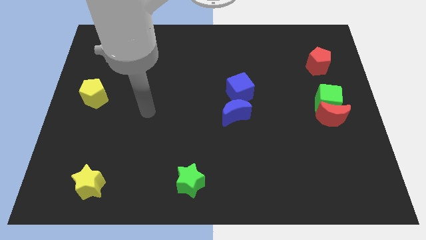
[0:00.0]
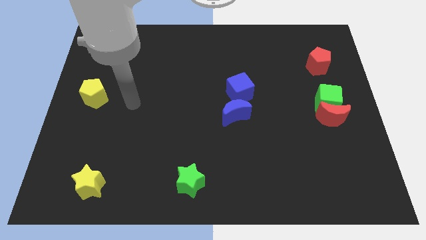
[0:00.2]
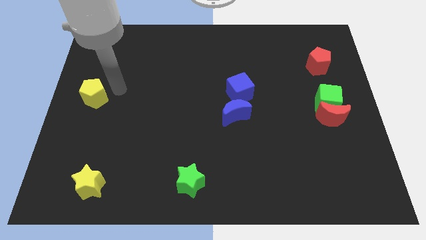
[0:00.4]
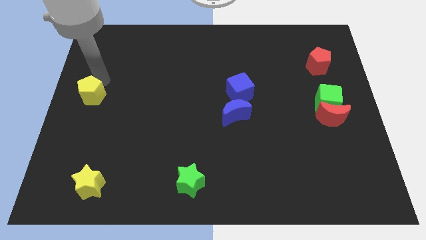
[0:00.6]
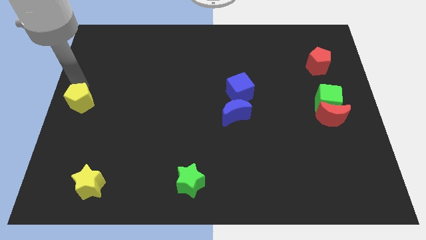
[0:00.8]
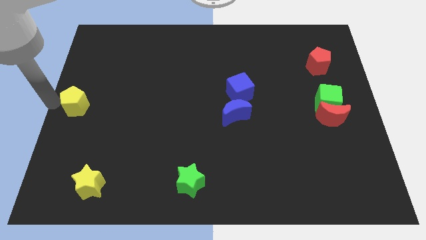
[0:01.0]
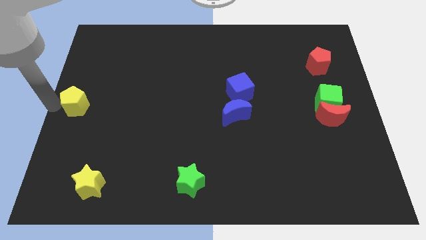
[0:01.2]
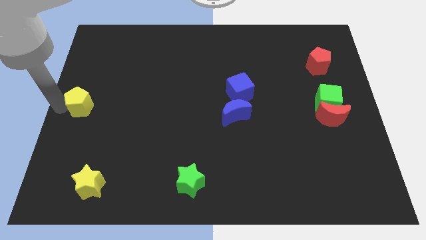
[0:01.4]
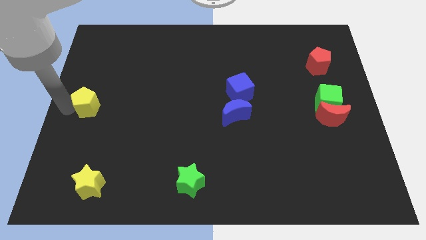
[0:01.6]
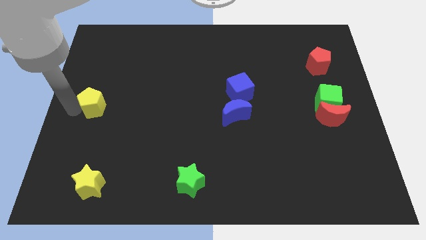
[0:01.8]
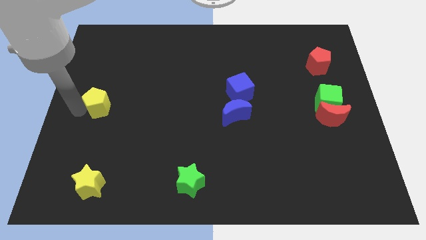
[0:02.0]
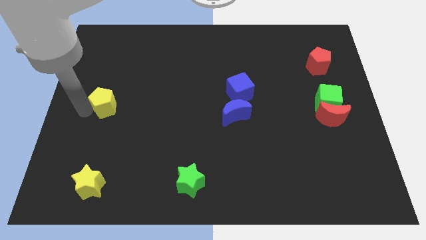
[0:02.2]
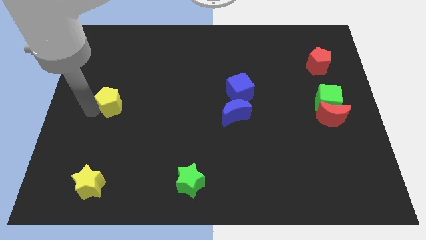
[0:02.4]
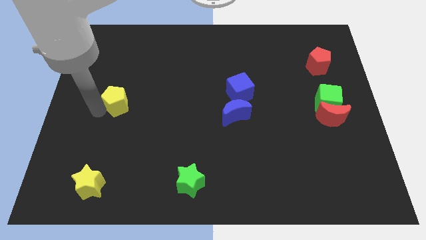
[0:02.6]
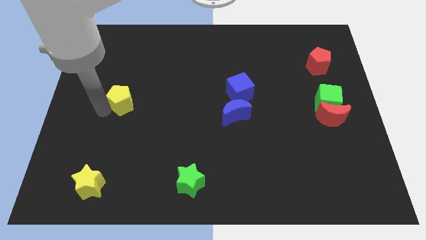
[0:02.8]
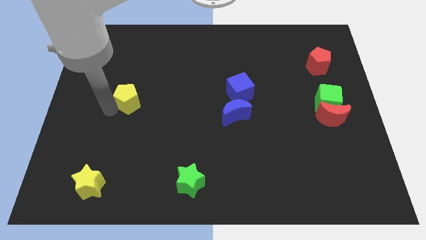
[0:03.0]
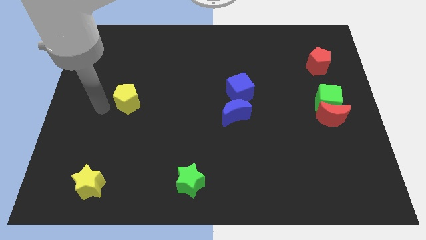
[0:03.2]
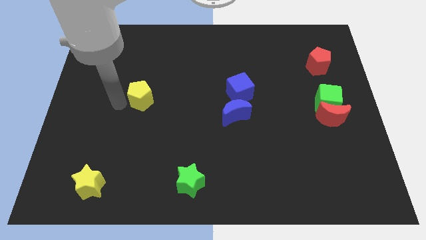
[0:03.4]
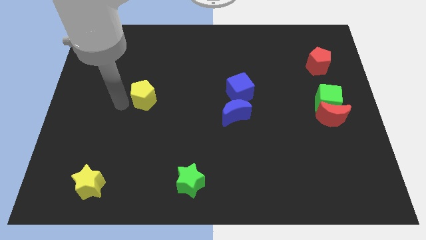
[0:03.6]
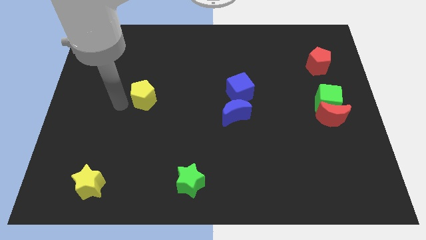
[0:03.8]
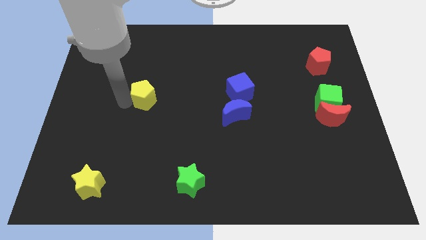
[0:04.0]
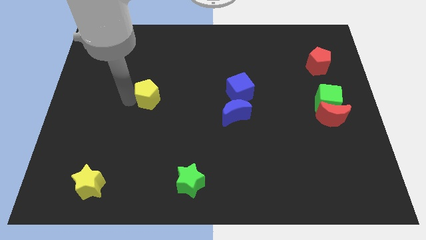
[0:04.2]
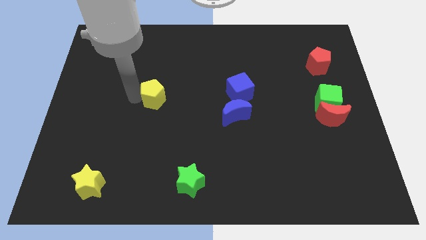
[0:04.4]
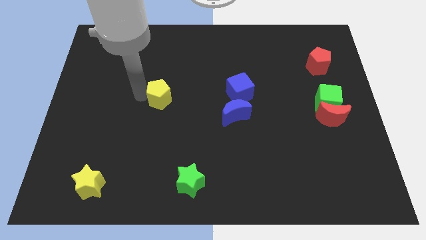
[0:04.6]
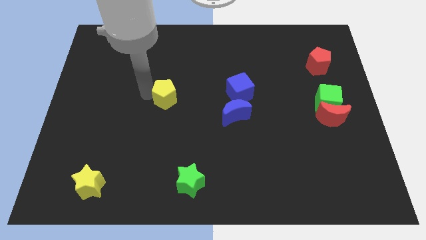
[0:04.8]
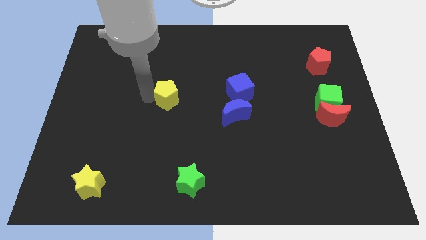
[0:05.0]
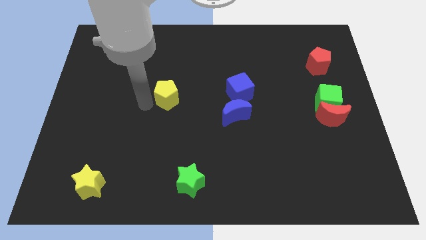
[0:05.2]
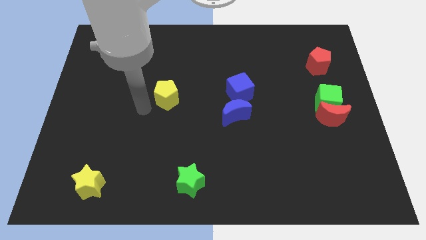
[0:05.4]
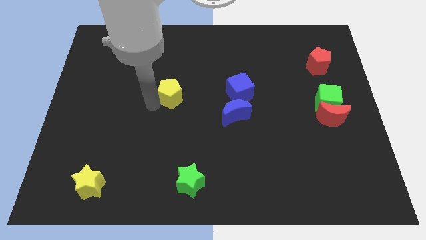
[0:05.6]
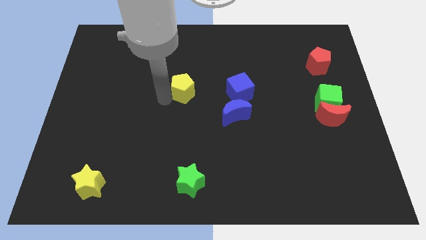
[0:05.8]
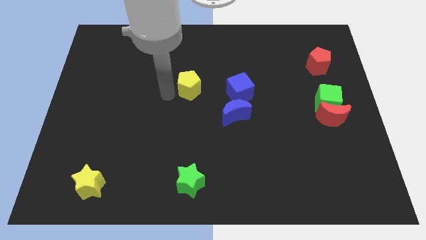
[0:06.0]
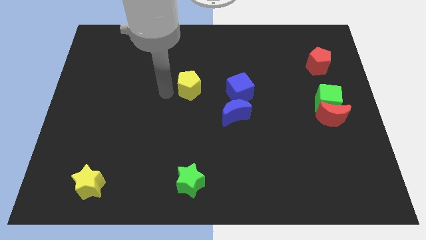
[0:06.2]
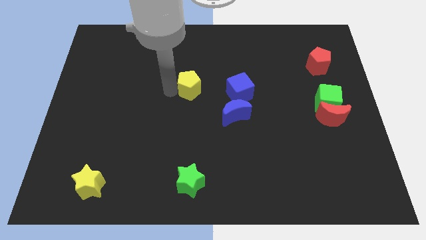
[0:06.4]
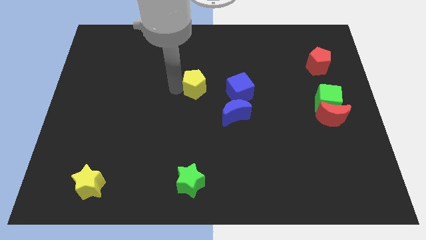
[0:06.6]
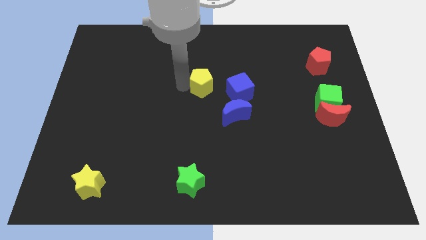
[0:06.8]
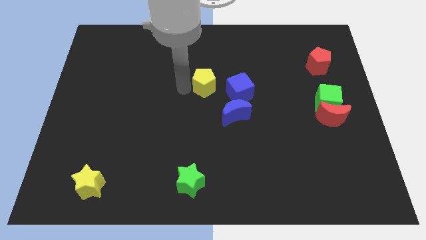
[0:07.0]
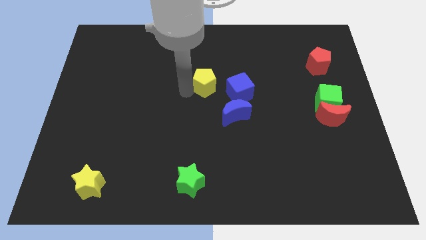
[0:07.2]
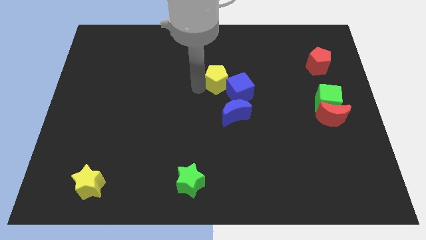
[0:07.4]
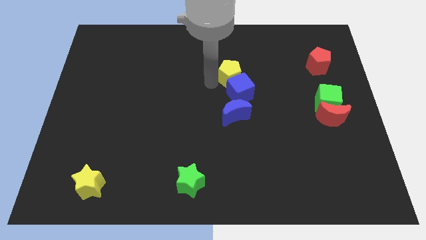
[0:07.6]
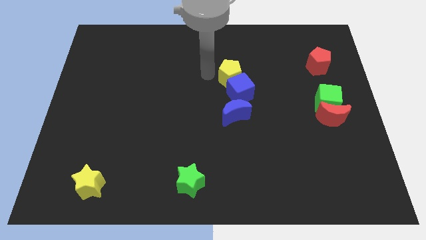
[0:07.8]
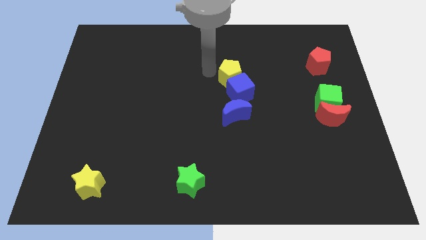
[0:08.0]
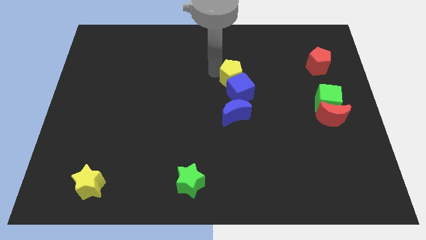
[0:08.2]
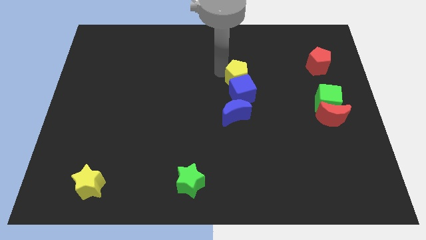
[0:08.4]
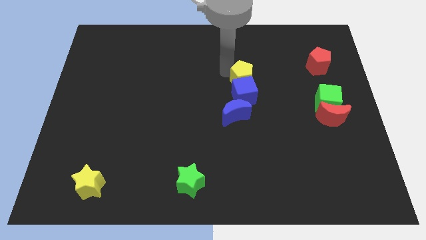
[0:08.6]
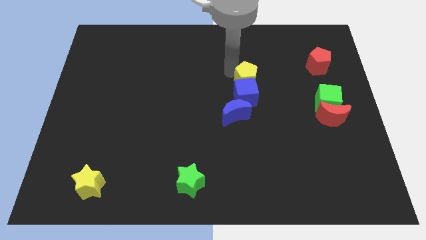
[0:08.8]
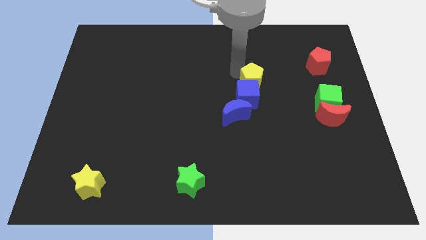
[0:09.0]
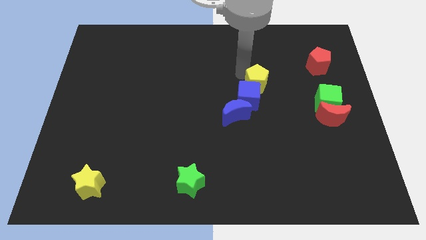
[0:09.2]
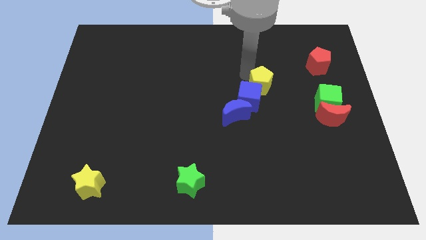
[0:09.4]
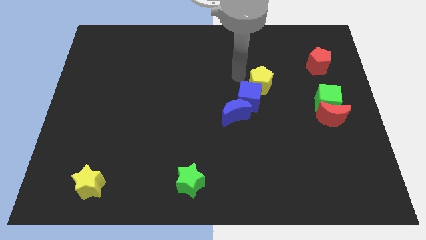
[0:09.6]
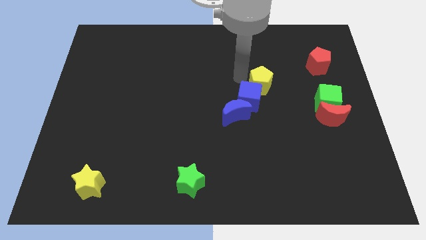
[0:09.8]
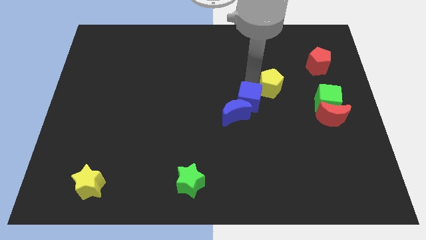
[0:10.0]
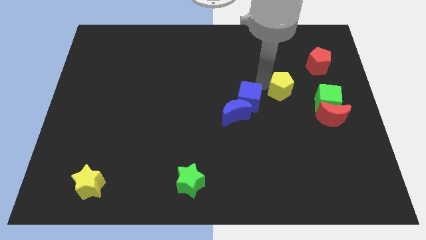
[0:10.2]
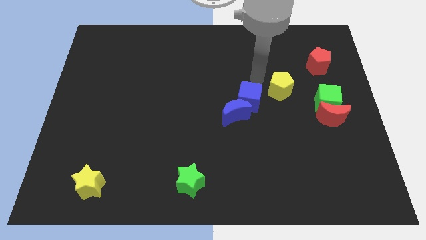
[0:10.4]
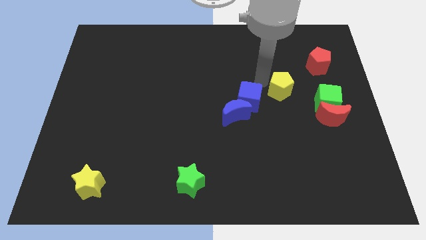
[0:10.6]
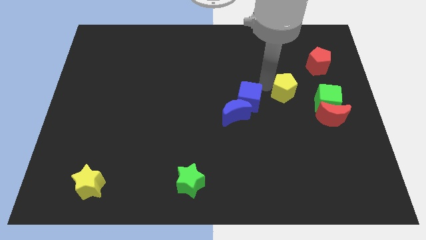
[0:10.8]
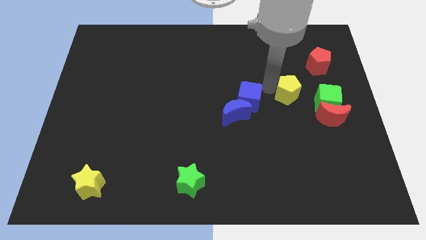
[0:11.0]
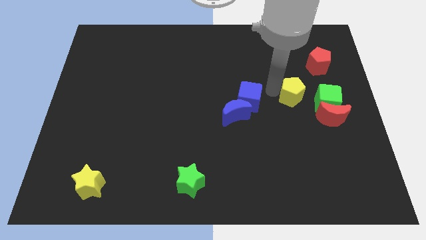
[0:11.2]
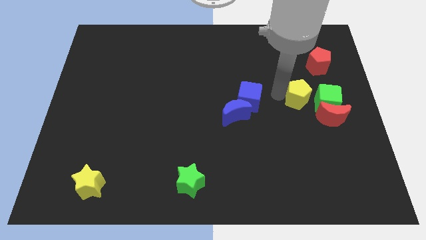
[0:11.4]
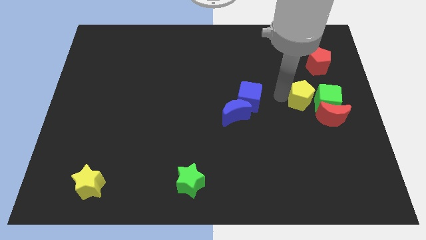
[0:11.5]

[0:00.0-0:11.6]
slide the yellow pentagon to the green cube

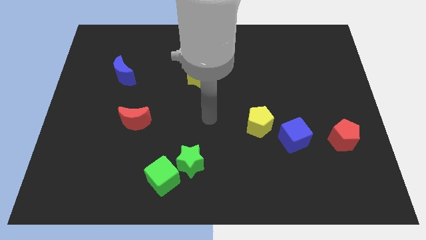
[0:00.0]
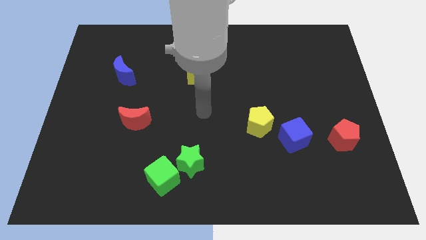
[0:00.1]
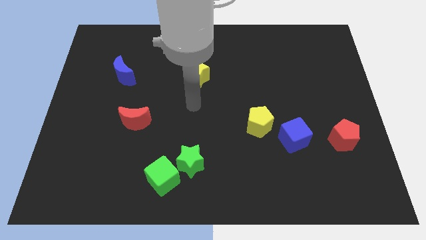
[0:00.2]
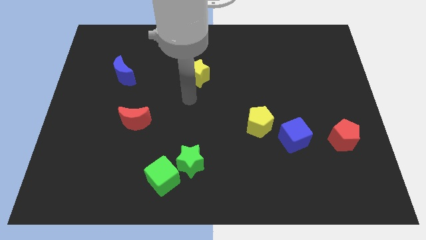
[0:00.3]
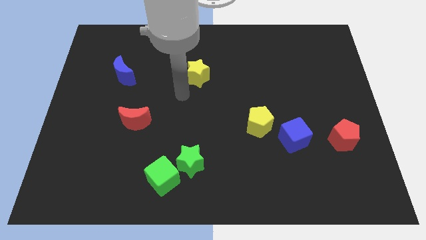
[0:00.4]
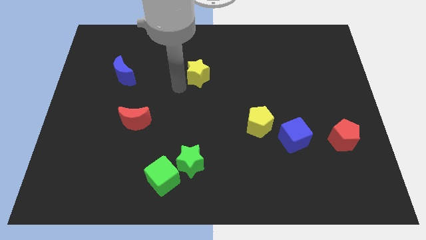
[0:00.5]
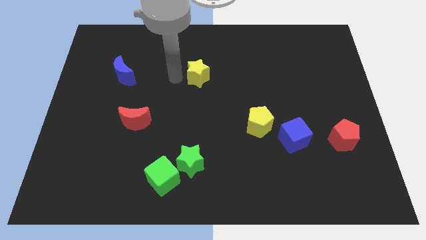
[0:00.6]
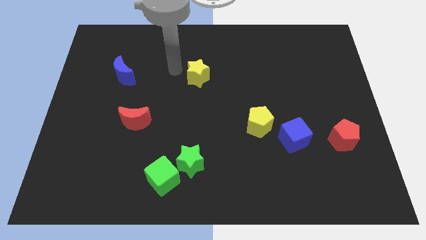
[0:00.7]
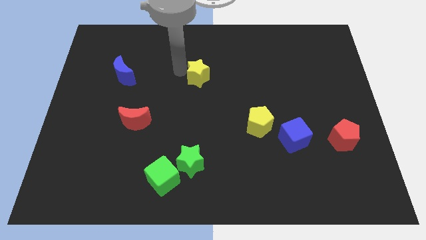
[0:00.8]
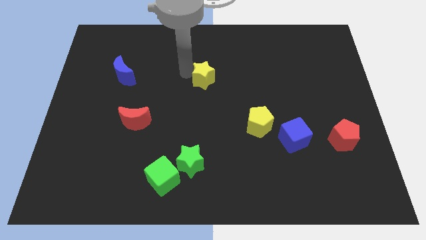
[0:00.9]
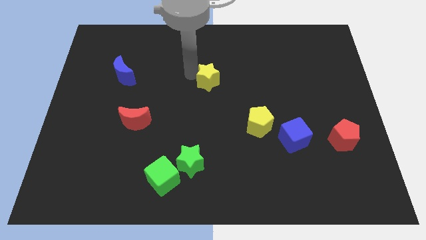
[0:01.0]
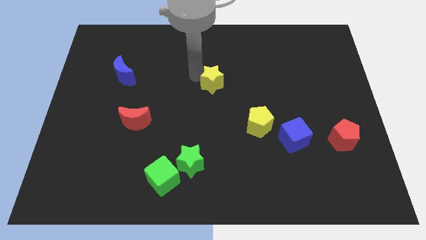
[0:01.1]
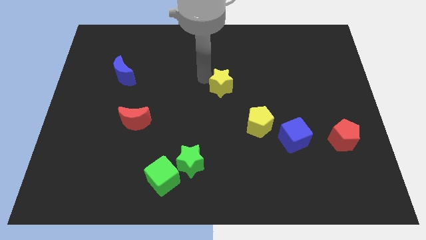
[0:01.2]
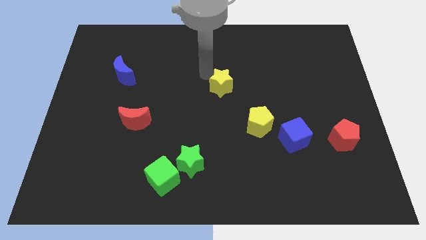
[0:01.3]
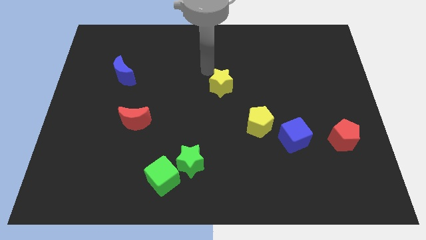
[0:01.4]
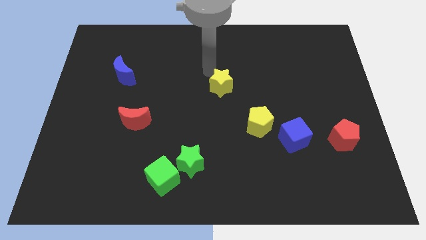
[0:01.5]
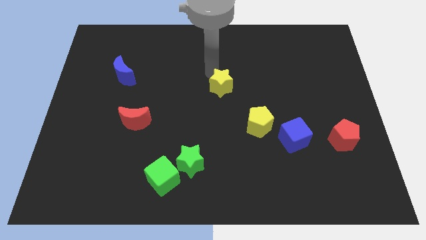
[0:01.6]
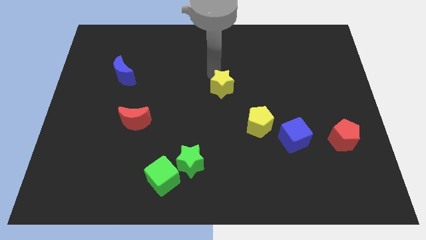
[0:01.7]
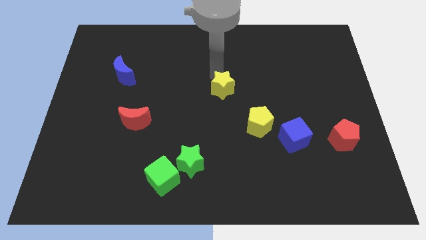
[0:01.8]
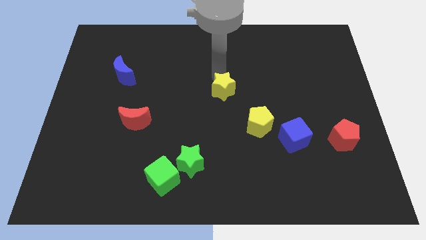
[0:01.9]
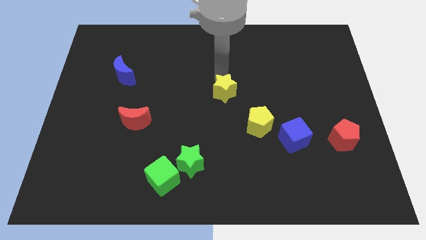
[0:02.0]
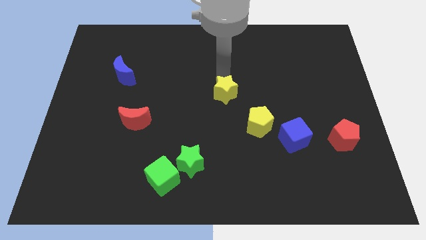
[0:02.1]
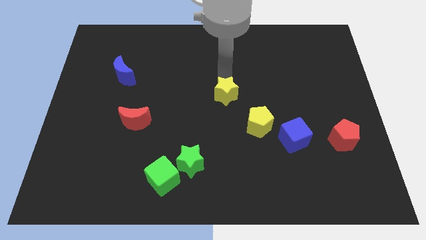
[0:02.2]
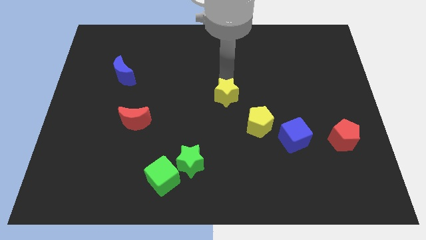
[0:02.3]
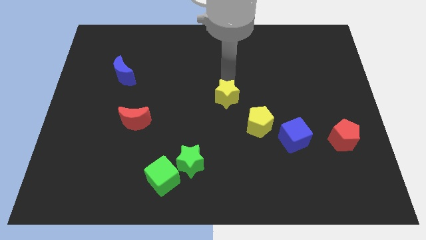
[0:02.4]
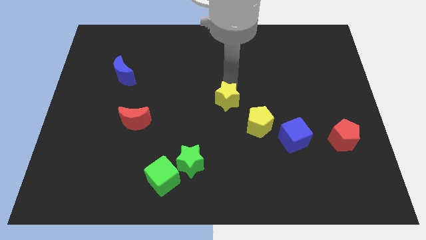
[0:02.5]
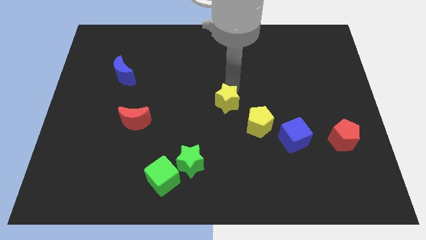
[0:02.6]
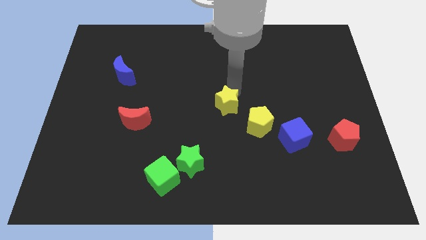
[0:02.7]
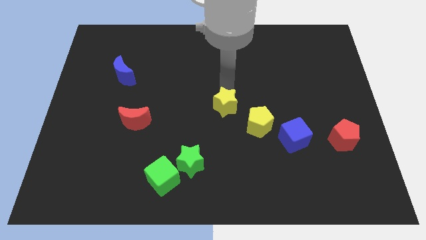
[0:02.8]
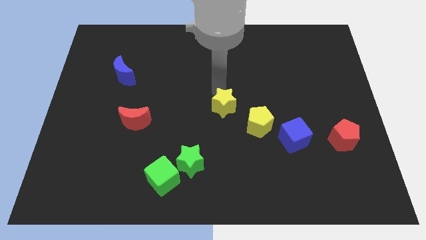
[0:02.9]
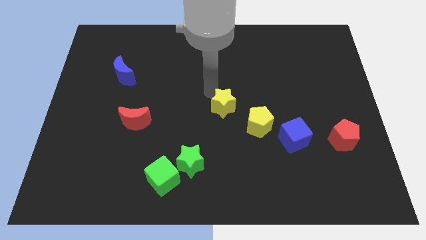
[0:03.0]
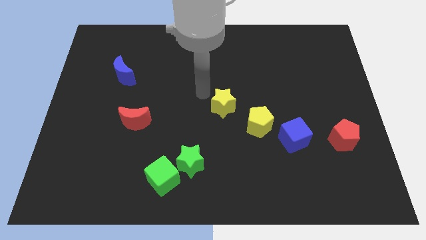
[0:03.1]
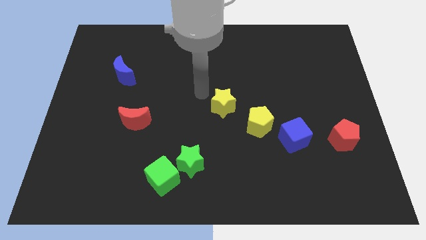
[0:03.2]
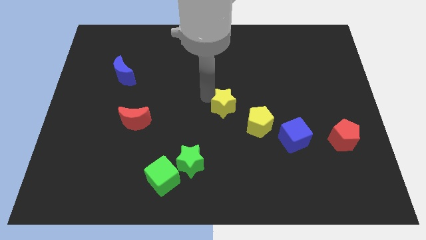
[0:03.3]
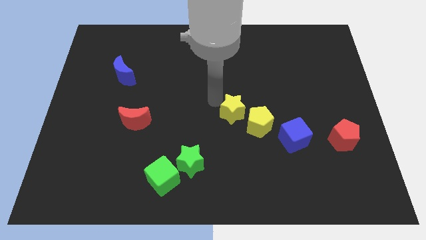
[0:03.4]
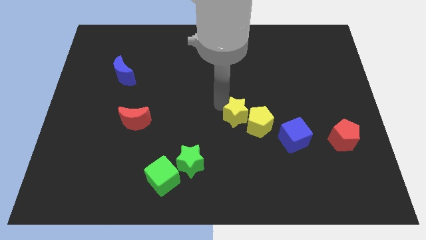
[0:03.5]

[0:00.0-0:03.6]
slide the yellow star to the yellow pentagon
